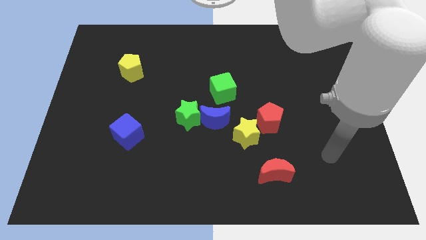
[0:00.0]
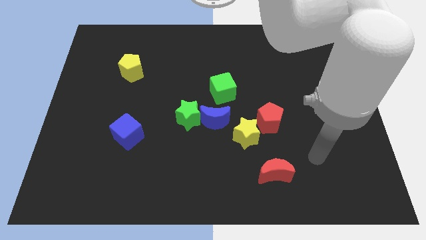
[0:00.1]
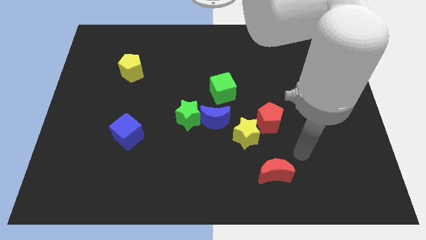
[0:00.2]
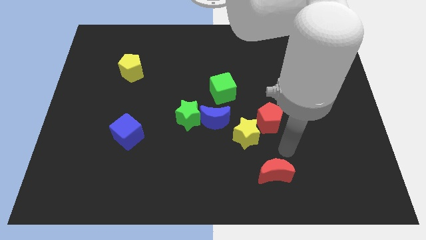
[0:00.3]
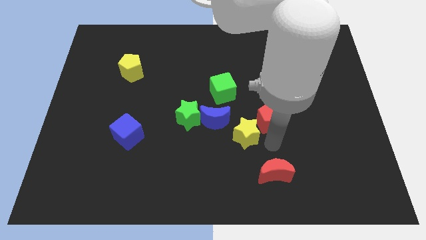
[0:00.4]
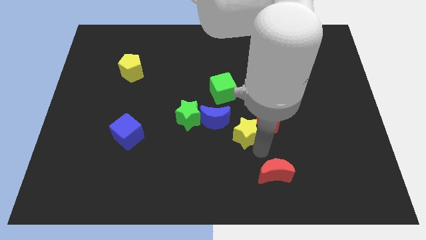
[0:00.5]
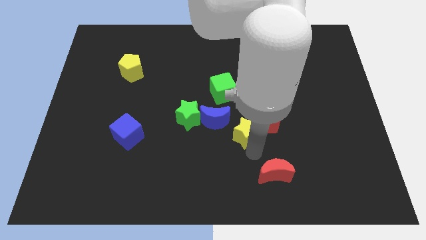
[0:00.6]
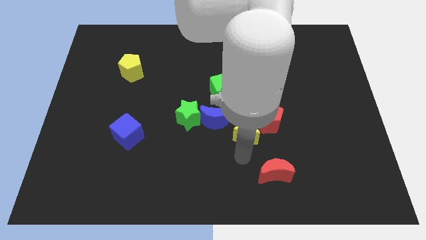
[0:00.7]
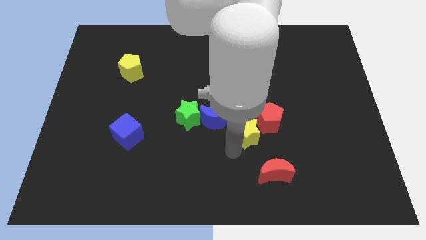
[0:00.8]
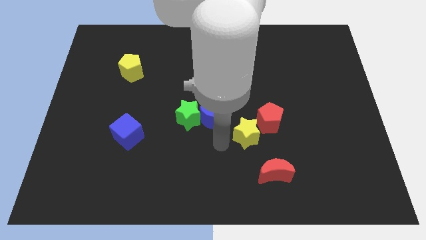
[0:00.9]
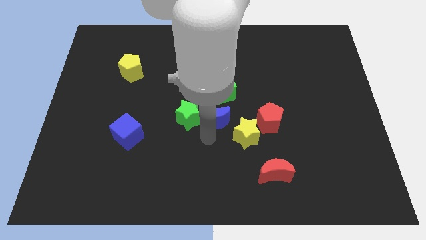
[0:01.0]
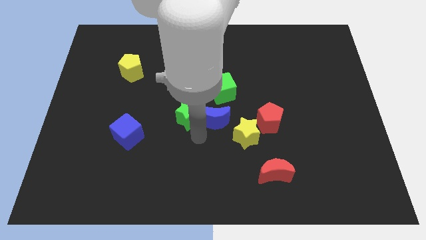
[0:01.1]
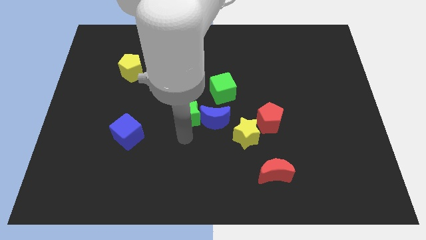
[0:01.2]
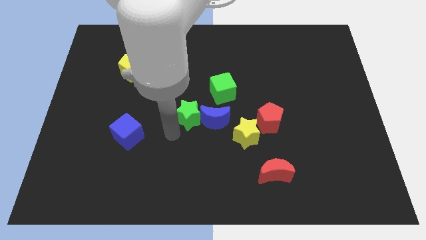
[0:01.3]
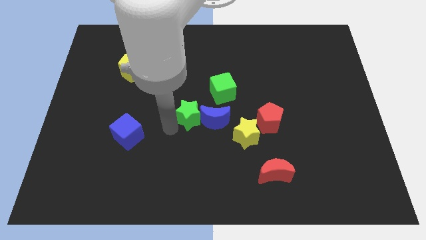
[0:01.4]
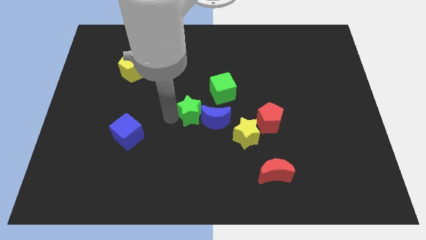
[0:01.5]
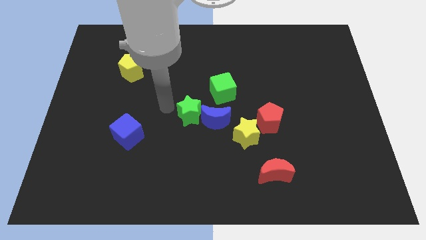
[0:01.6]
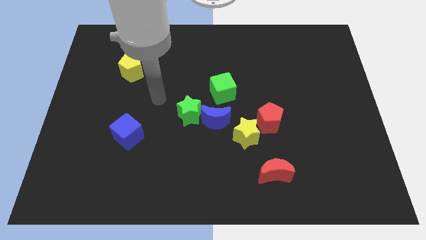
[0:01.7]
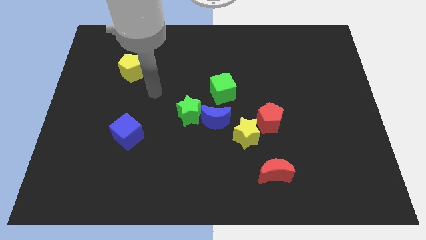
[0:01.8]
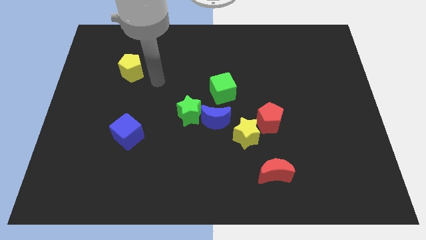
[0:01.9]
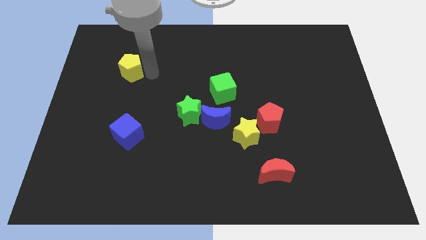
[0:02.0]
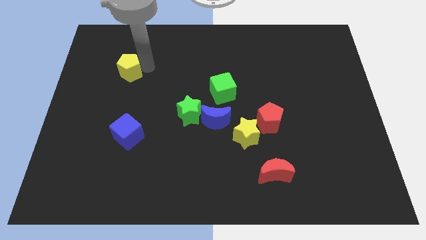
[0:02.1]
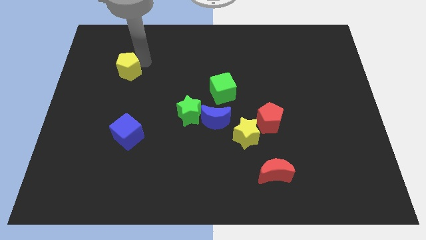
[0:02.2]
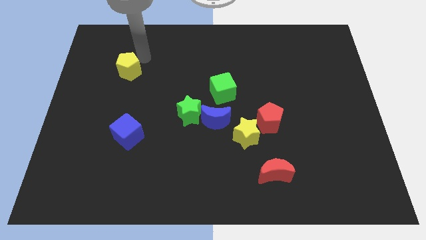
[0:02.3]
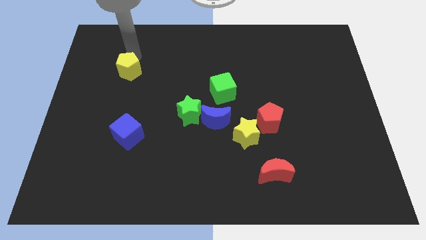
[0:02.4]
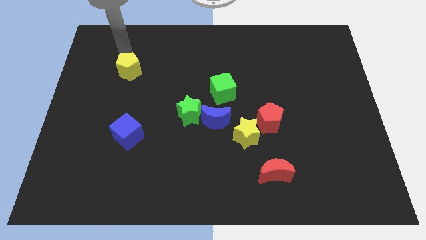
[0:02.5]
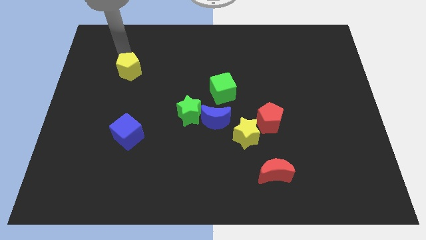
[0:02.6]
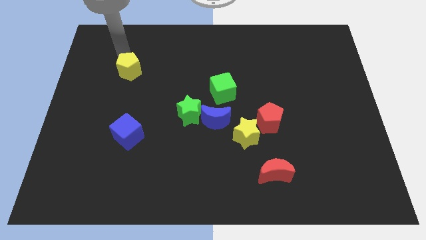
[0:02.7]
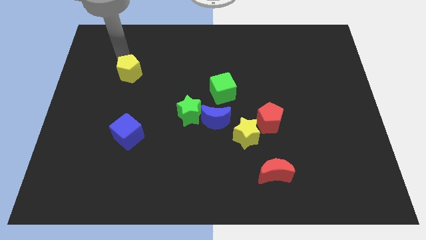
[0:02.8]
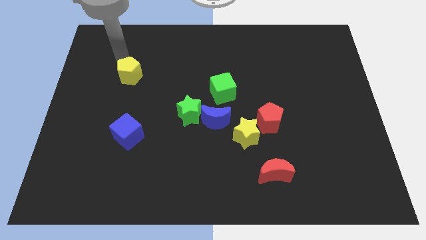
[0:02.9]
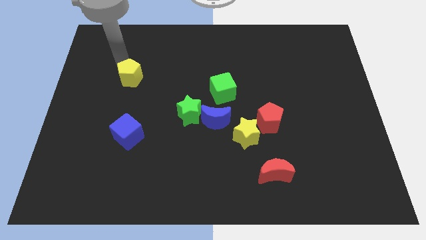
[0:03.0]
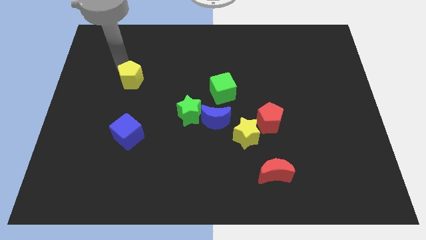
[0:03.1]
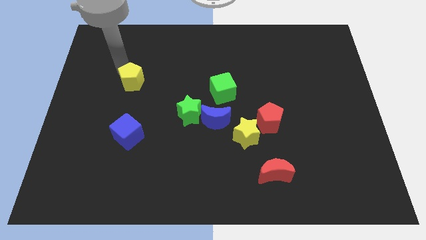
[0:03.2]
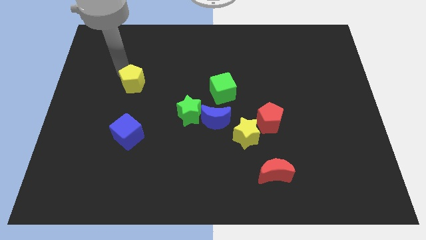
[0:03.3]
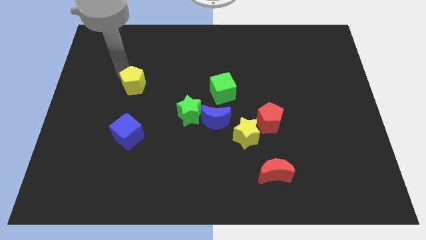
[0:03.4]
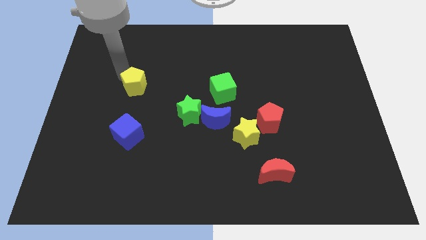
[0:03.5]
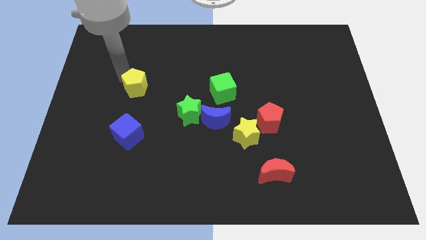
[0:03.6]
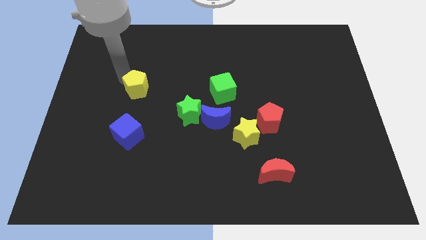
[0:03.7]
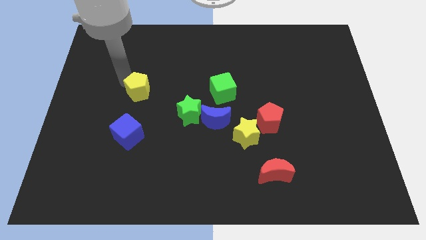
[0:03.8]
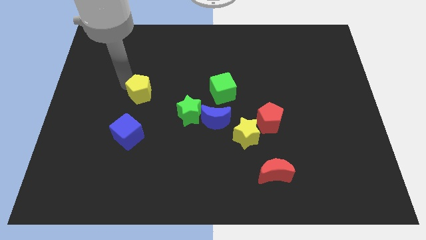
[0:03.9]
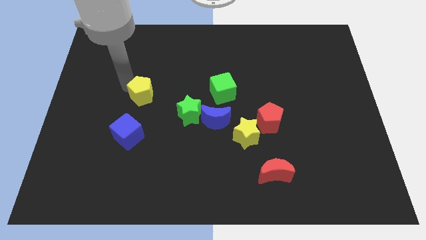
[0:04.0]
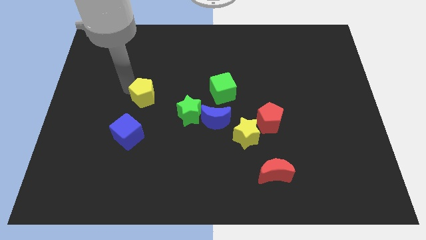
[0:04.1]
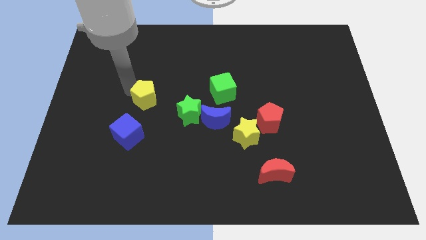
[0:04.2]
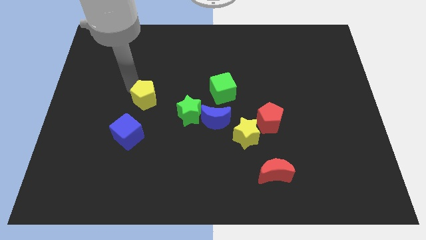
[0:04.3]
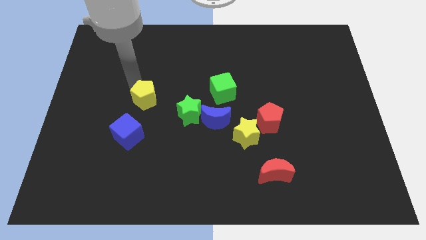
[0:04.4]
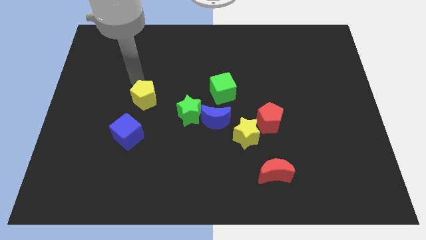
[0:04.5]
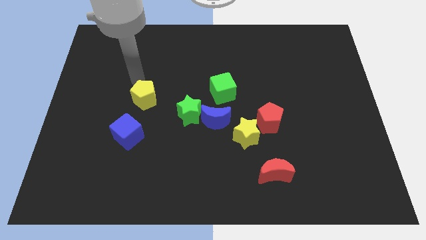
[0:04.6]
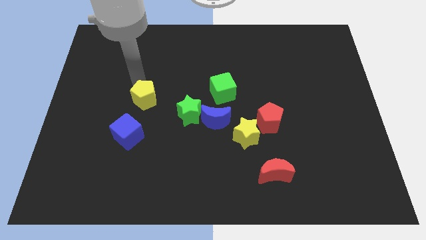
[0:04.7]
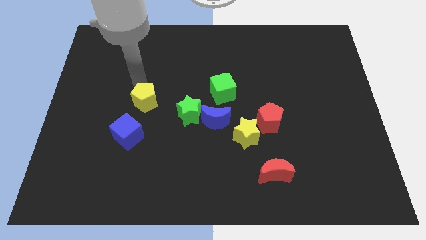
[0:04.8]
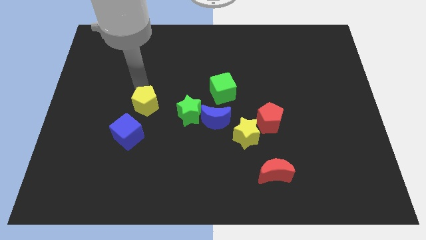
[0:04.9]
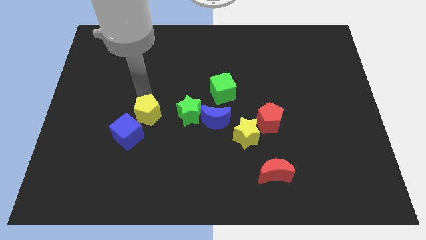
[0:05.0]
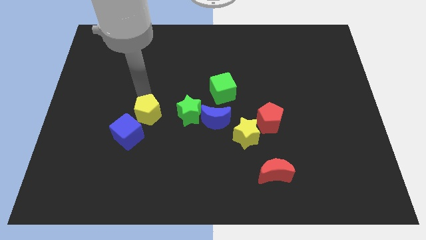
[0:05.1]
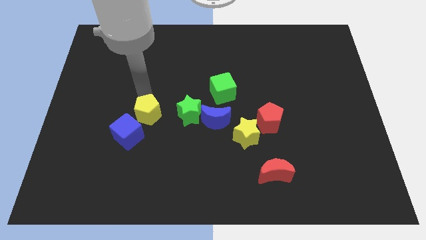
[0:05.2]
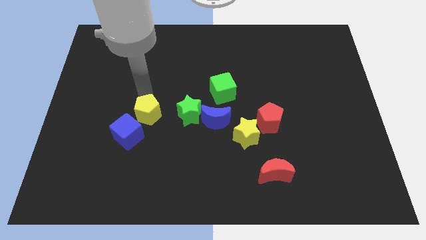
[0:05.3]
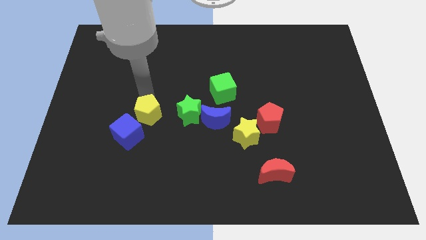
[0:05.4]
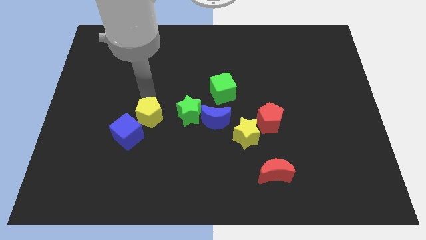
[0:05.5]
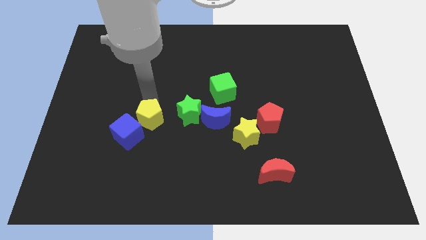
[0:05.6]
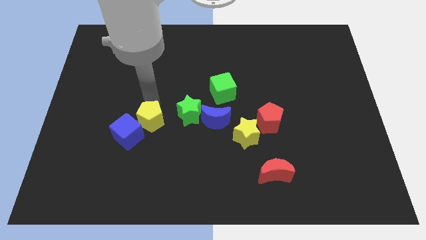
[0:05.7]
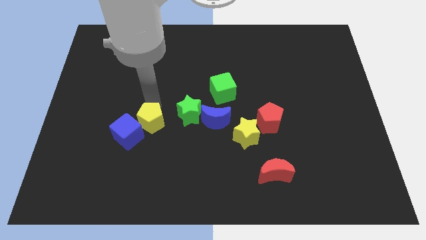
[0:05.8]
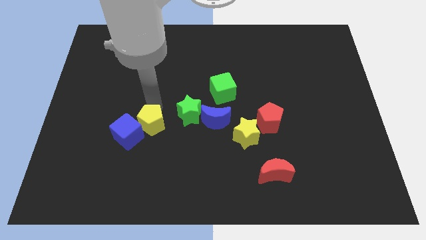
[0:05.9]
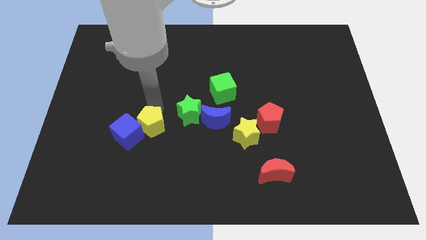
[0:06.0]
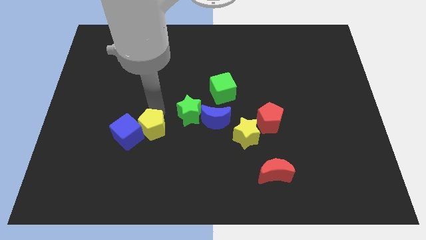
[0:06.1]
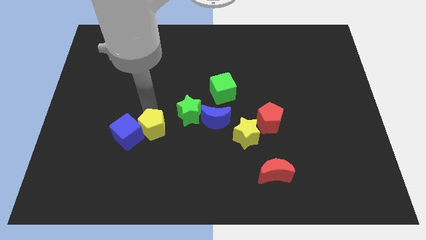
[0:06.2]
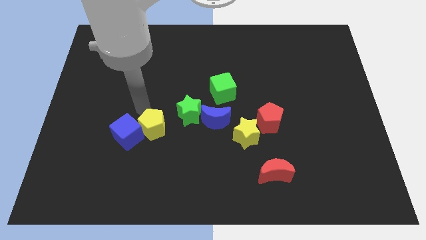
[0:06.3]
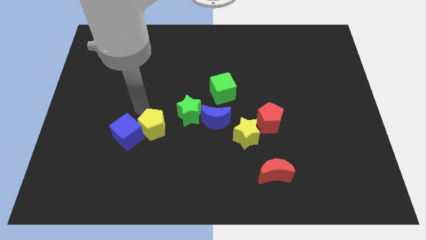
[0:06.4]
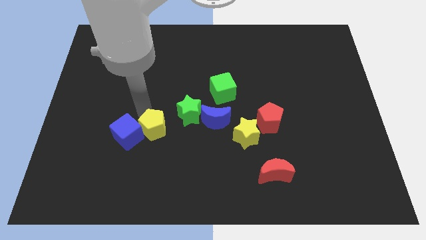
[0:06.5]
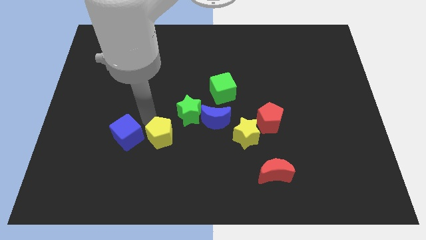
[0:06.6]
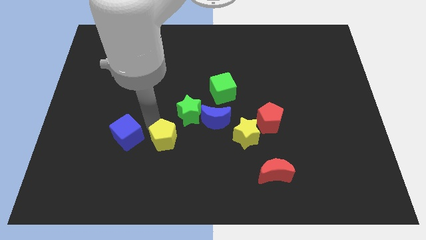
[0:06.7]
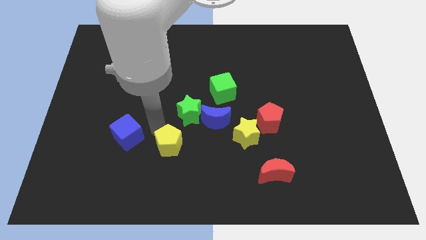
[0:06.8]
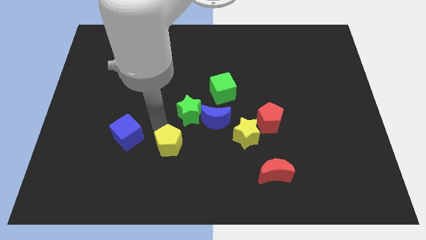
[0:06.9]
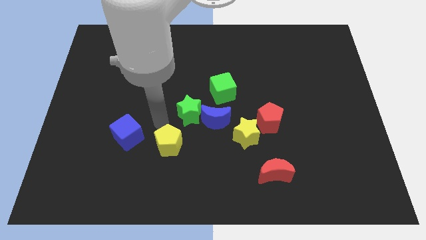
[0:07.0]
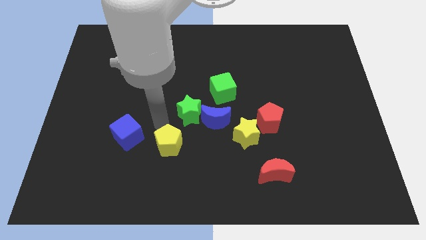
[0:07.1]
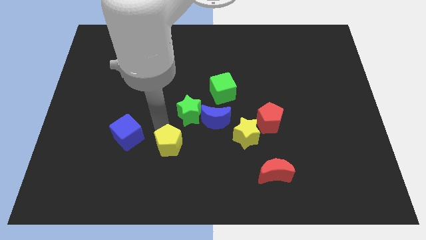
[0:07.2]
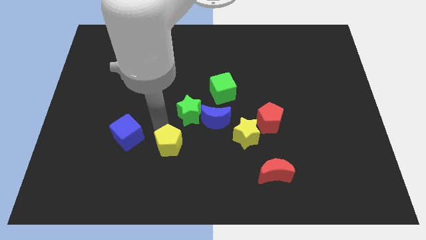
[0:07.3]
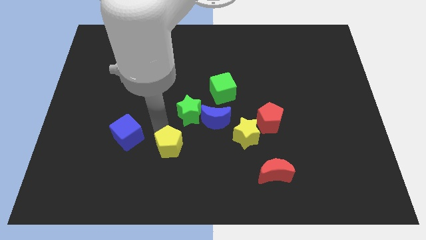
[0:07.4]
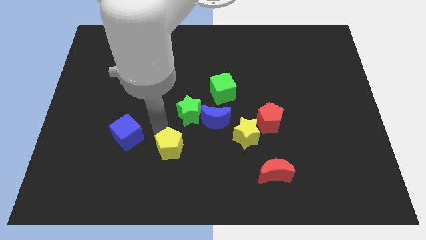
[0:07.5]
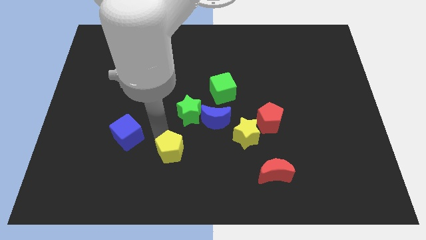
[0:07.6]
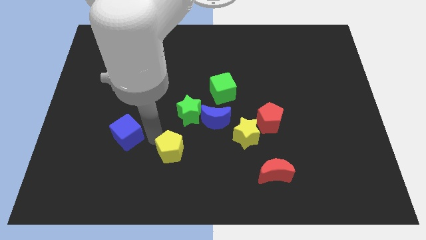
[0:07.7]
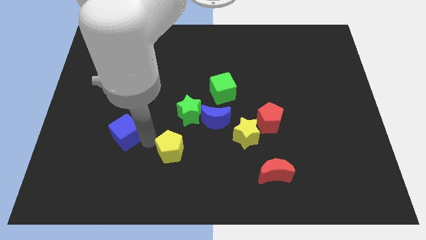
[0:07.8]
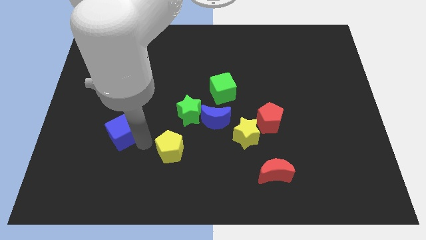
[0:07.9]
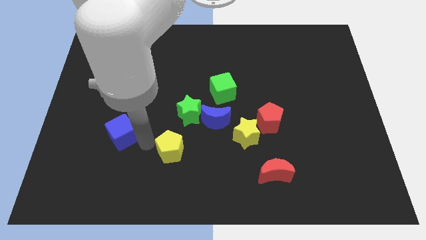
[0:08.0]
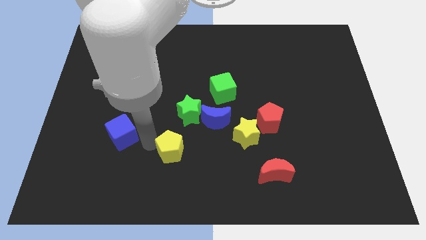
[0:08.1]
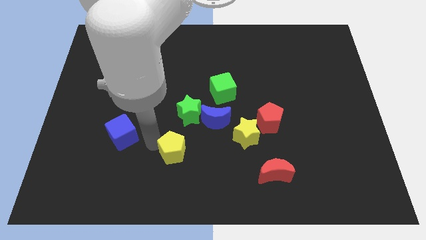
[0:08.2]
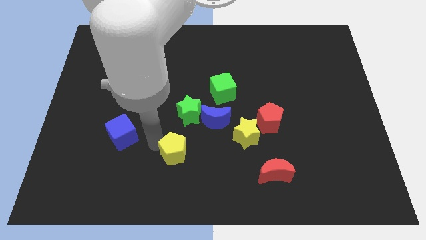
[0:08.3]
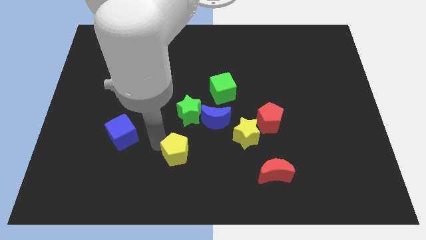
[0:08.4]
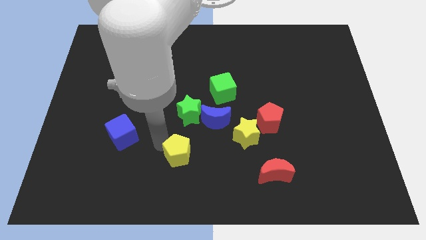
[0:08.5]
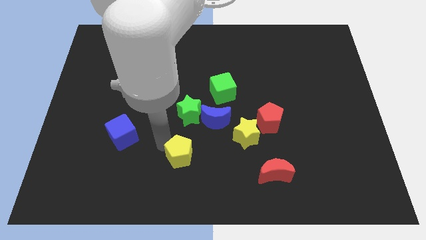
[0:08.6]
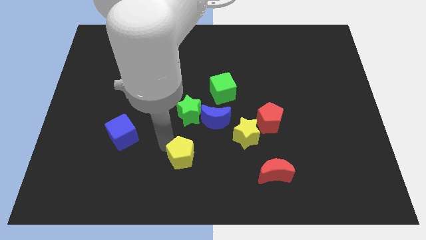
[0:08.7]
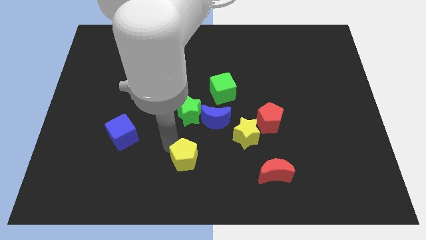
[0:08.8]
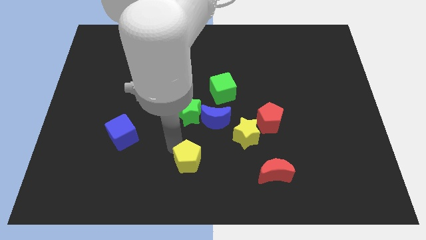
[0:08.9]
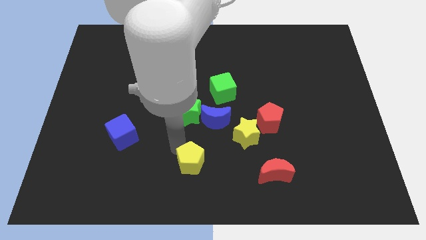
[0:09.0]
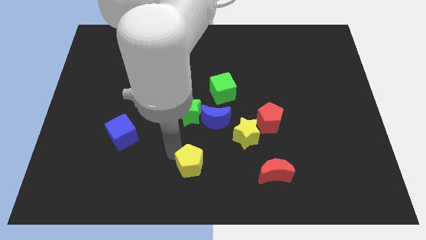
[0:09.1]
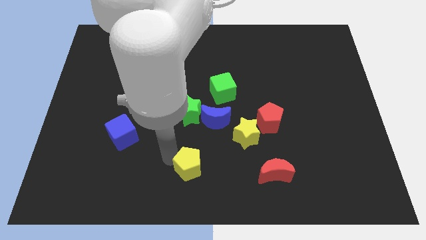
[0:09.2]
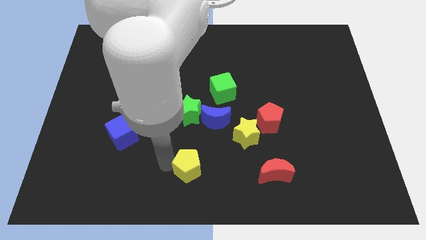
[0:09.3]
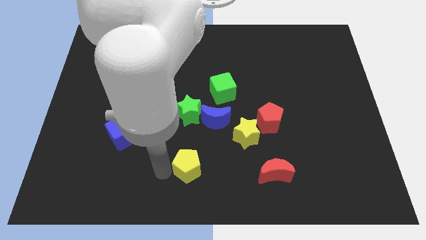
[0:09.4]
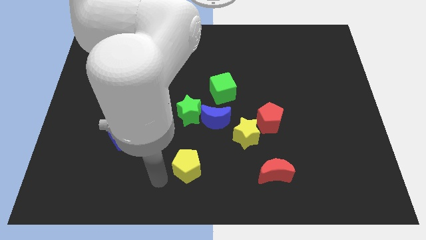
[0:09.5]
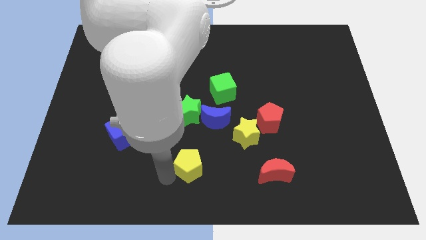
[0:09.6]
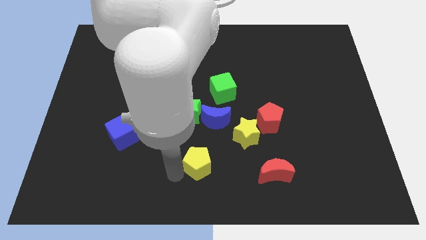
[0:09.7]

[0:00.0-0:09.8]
move the yellow pentagon diagonally down and to the left of the yellow star
